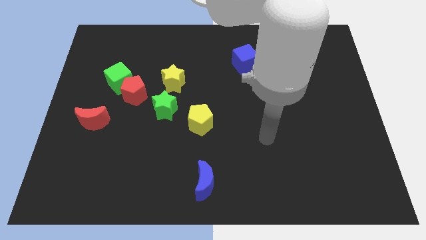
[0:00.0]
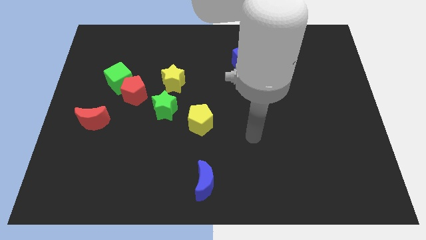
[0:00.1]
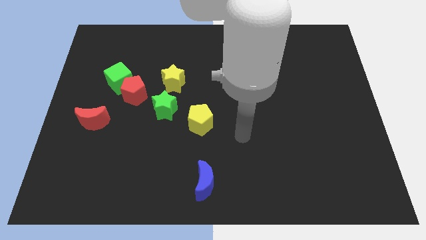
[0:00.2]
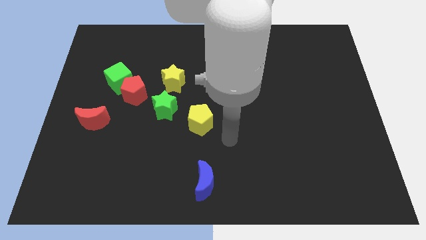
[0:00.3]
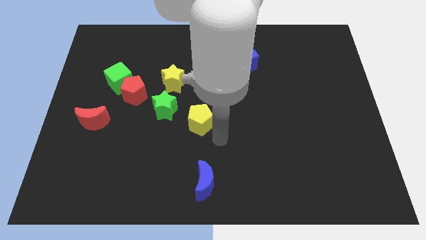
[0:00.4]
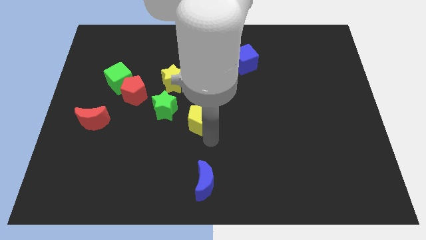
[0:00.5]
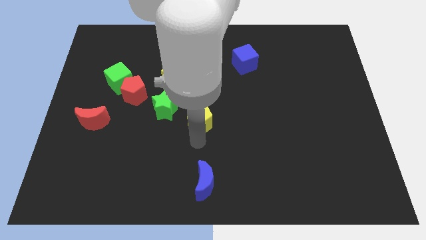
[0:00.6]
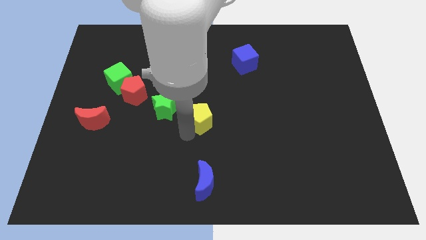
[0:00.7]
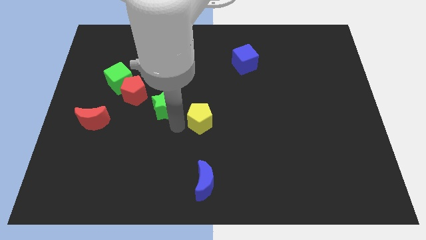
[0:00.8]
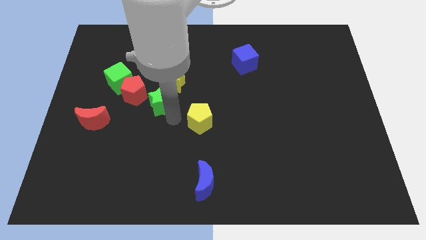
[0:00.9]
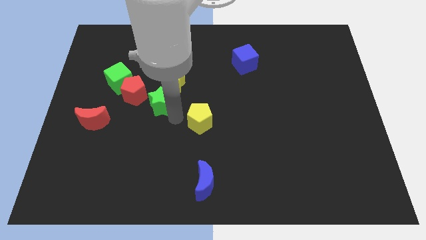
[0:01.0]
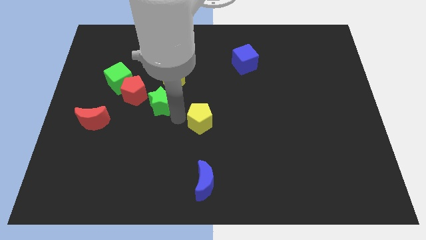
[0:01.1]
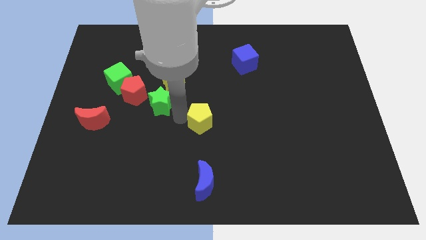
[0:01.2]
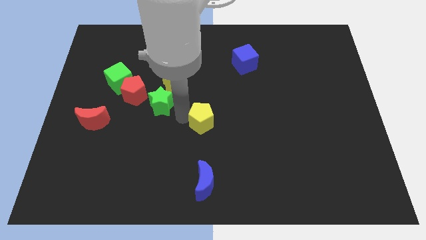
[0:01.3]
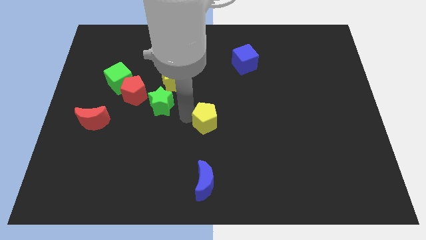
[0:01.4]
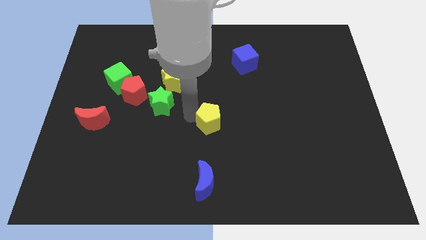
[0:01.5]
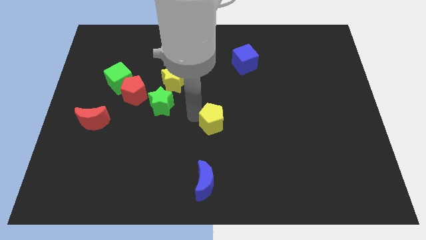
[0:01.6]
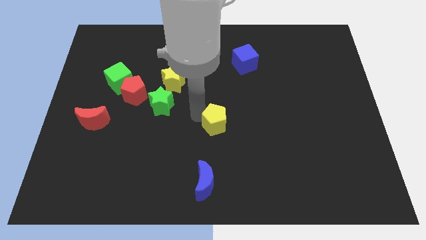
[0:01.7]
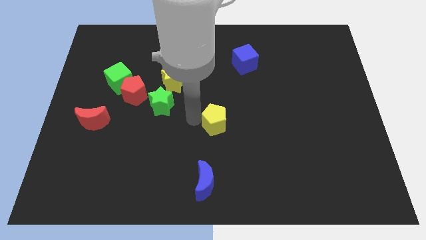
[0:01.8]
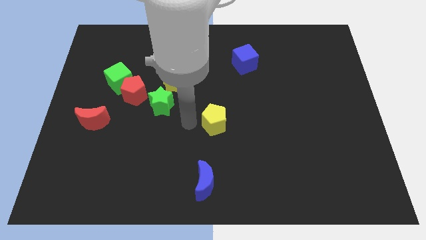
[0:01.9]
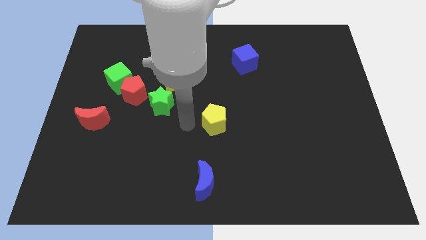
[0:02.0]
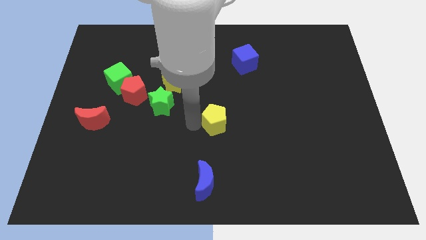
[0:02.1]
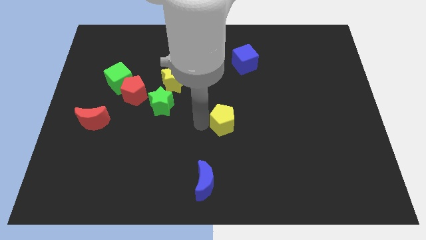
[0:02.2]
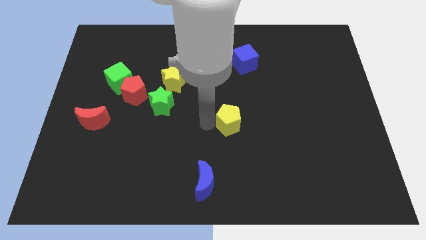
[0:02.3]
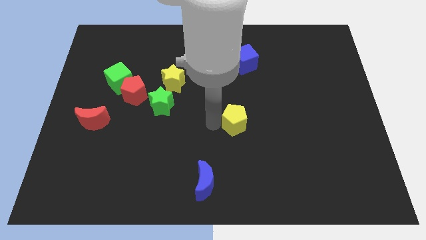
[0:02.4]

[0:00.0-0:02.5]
slightly push the yellow pentagon right

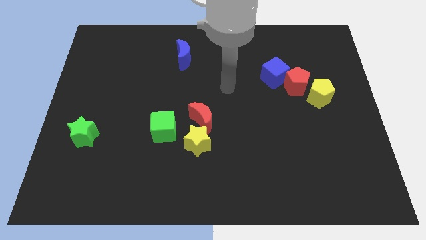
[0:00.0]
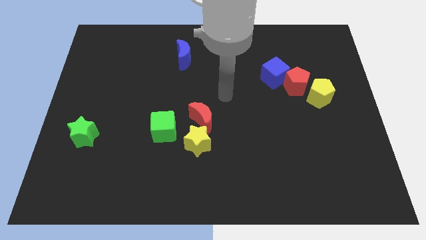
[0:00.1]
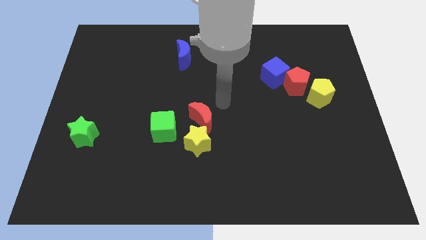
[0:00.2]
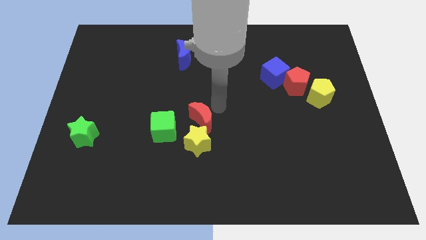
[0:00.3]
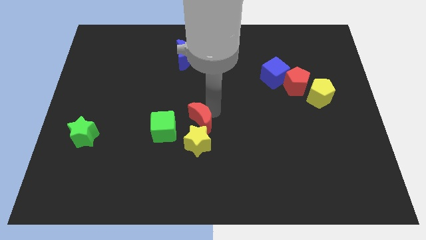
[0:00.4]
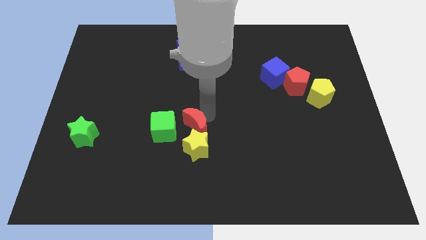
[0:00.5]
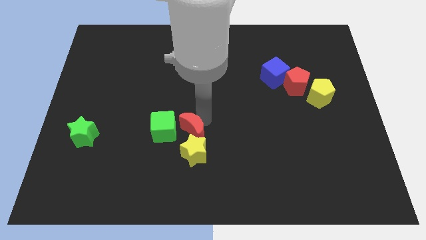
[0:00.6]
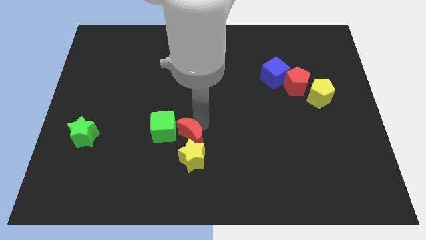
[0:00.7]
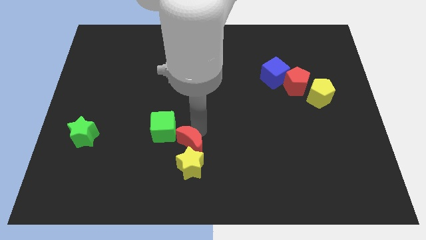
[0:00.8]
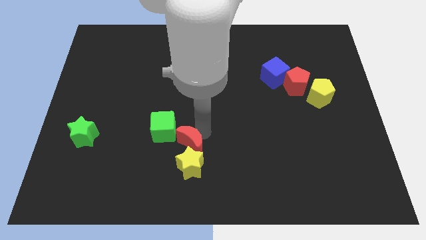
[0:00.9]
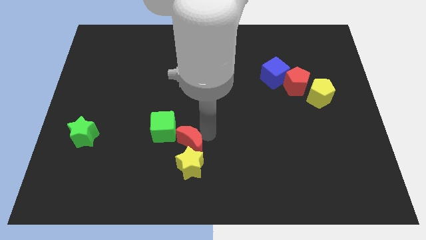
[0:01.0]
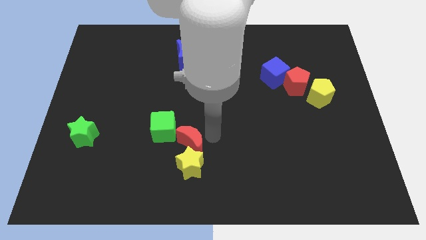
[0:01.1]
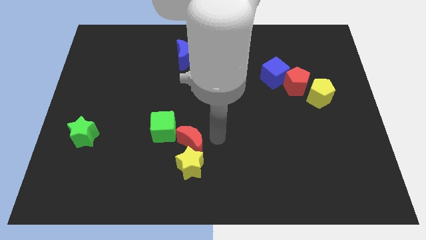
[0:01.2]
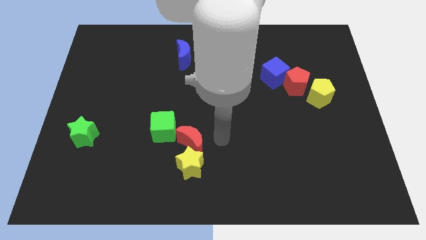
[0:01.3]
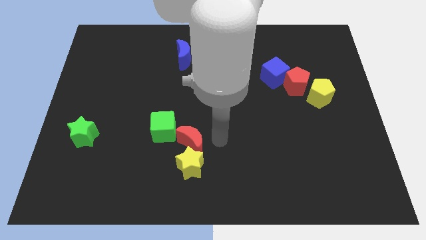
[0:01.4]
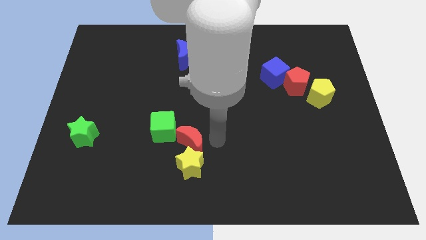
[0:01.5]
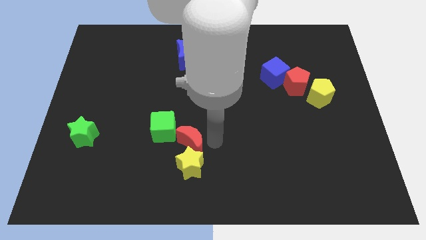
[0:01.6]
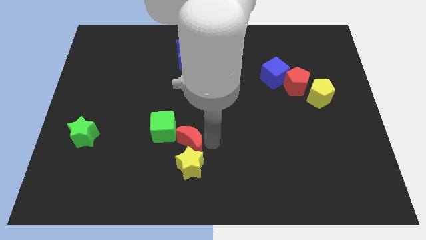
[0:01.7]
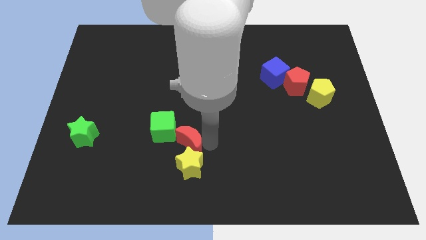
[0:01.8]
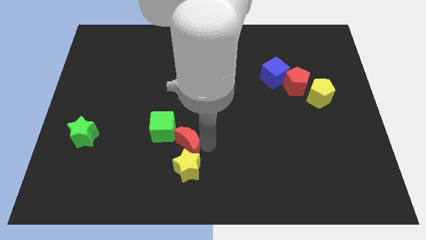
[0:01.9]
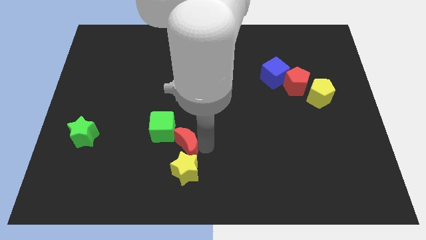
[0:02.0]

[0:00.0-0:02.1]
slightly move the red moon diagonally downwards and to the left

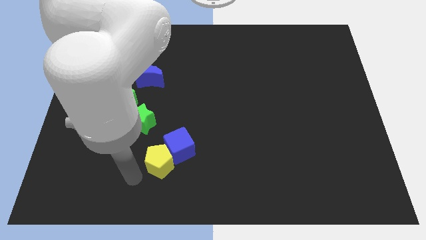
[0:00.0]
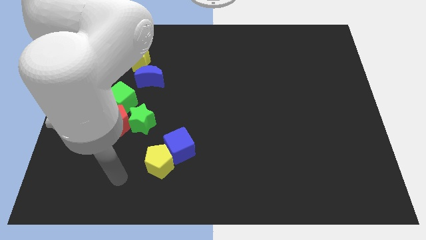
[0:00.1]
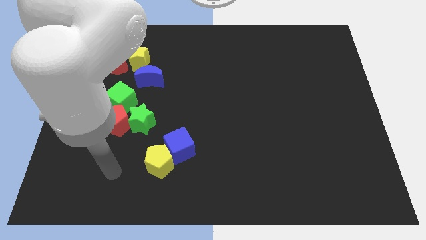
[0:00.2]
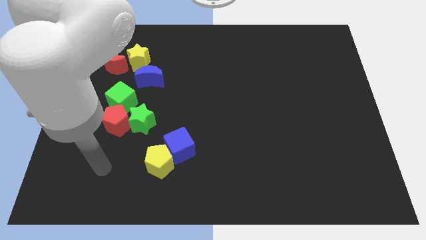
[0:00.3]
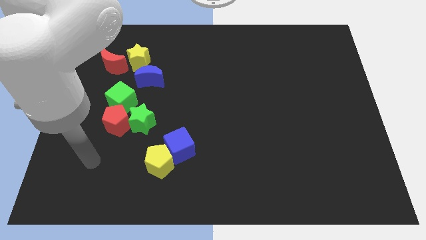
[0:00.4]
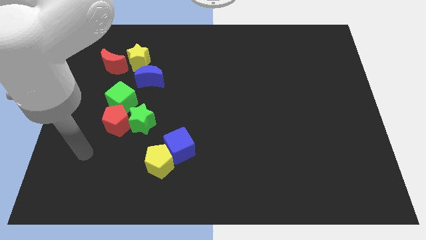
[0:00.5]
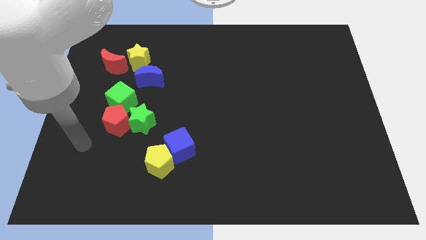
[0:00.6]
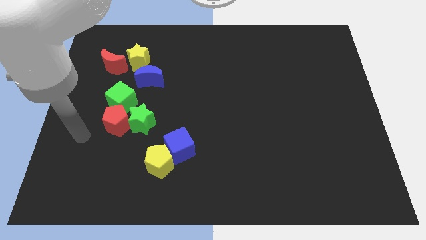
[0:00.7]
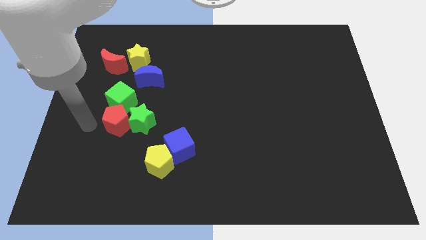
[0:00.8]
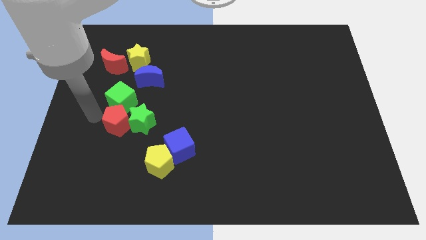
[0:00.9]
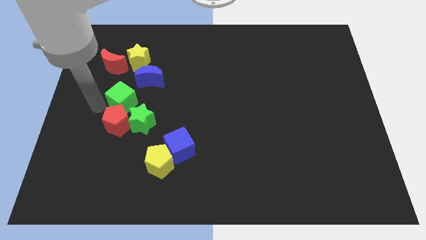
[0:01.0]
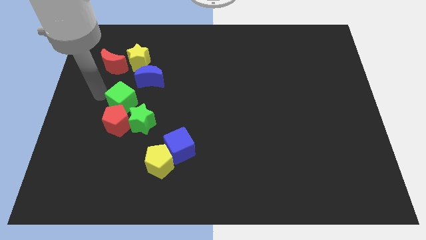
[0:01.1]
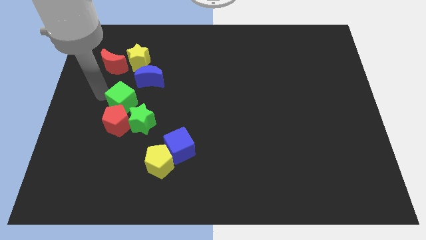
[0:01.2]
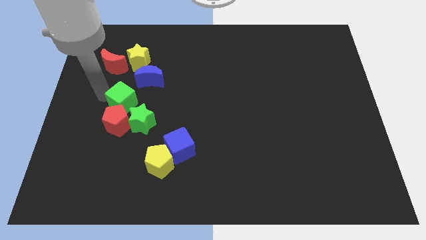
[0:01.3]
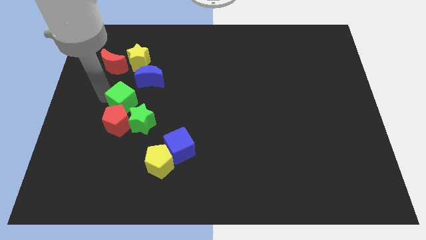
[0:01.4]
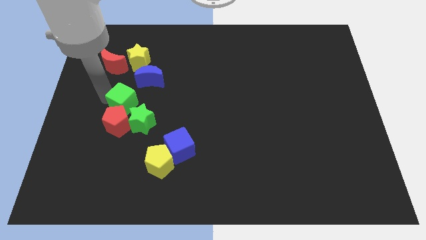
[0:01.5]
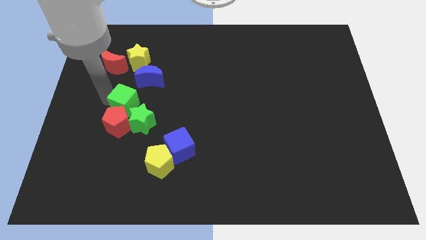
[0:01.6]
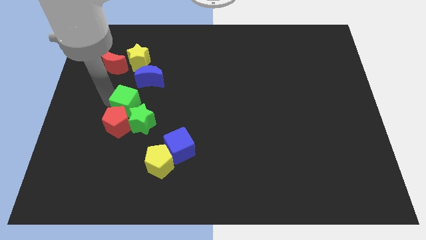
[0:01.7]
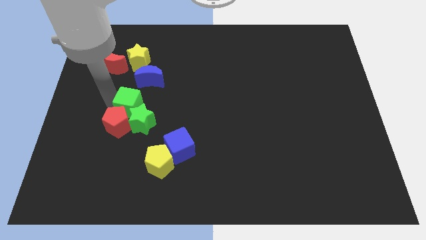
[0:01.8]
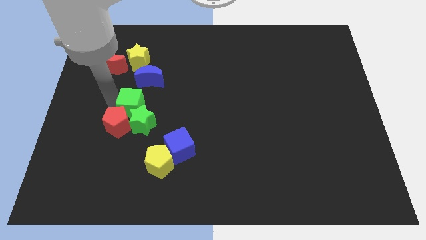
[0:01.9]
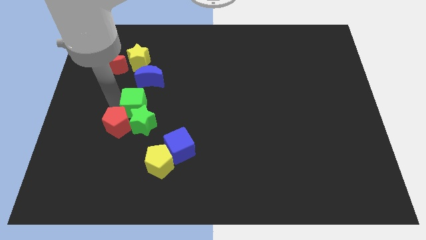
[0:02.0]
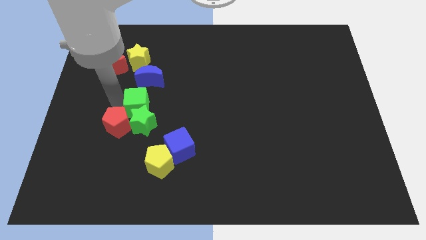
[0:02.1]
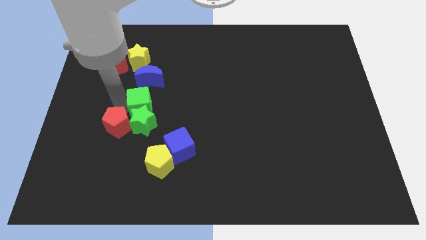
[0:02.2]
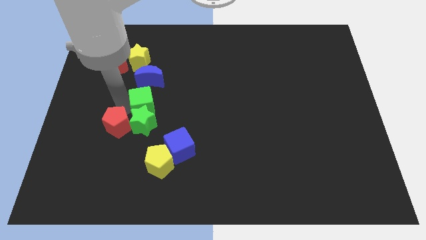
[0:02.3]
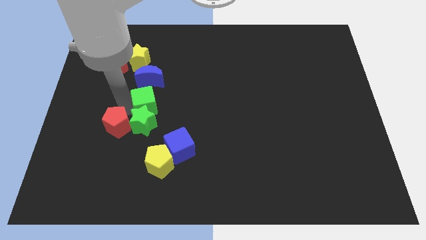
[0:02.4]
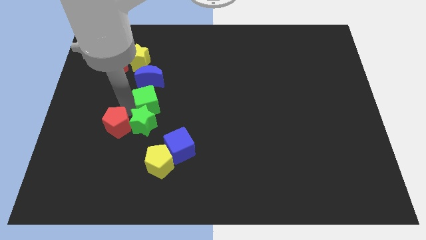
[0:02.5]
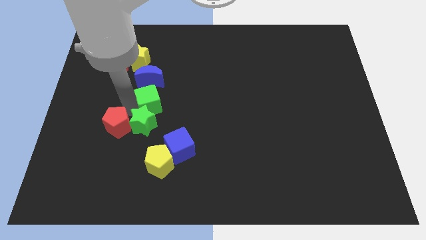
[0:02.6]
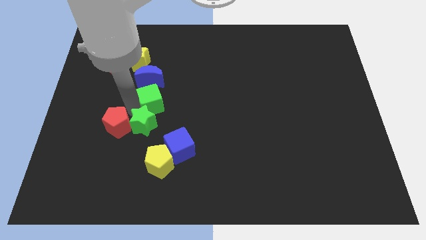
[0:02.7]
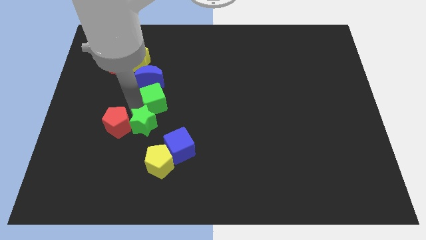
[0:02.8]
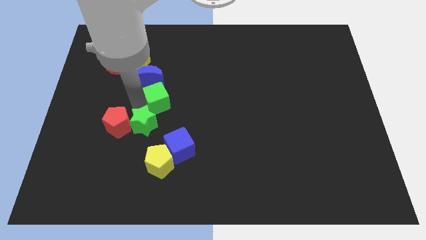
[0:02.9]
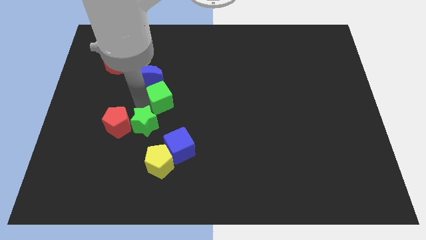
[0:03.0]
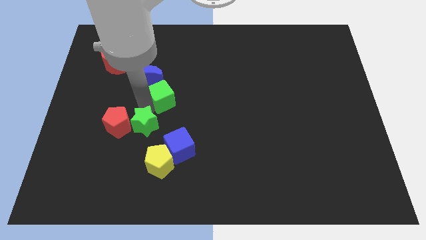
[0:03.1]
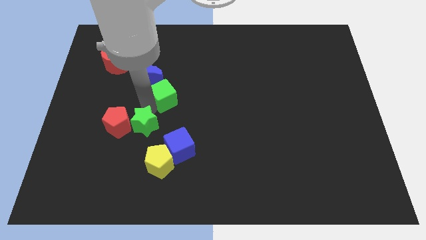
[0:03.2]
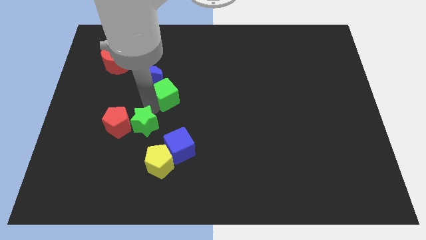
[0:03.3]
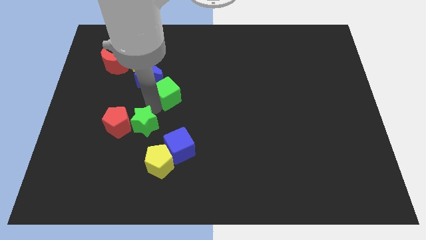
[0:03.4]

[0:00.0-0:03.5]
move the green cube diagonally upwards and right a little

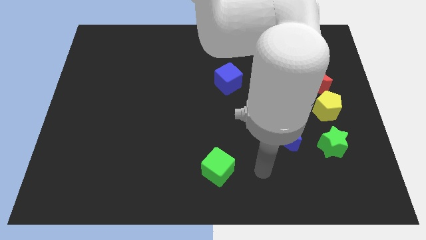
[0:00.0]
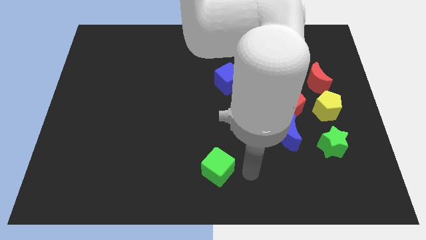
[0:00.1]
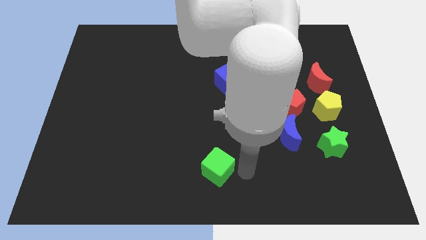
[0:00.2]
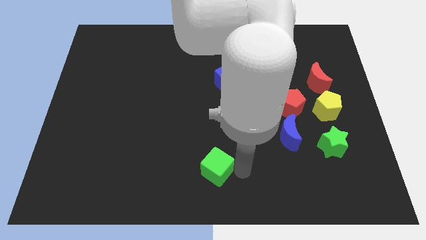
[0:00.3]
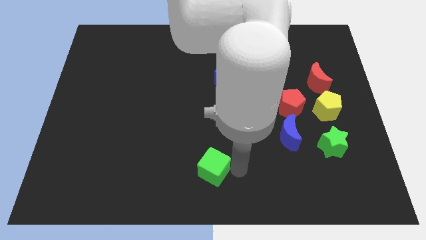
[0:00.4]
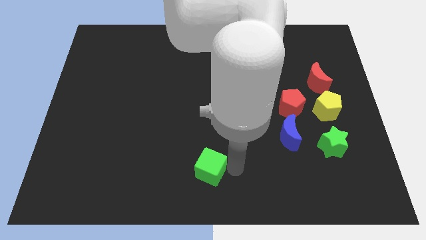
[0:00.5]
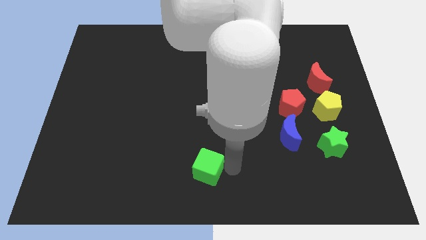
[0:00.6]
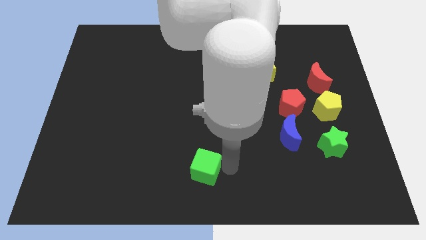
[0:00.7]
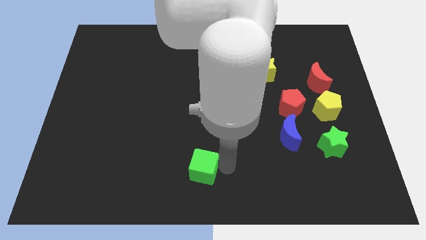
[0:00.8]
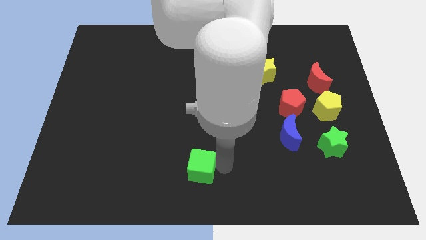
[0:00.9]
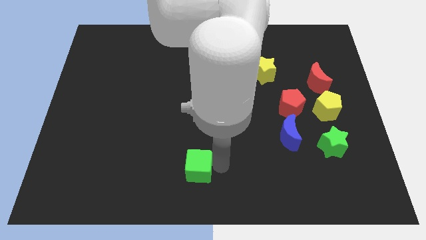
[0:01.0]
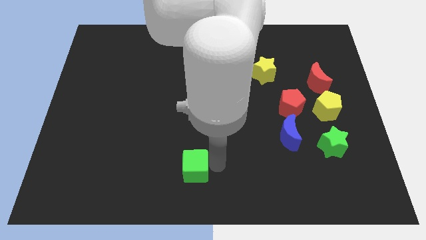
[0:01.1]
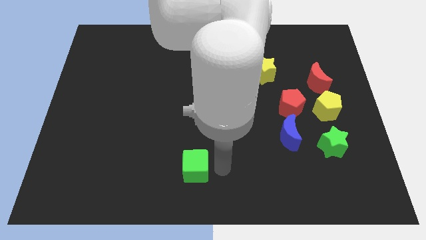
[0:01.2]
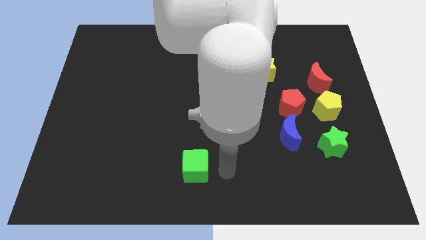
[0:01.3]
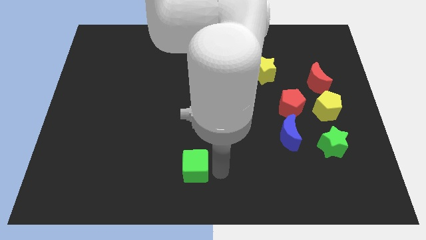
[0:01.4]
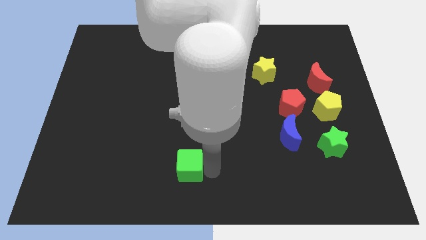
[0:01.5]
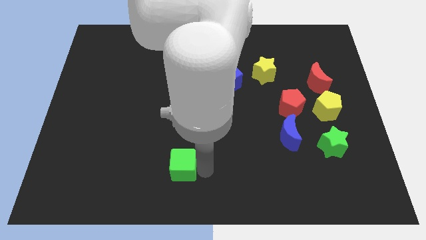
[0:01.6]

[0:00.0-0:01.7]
move the green cube left a little bit
